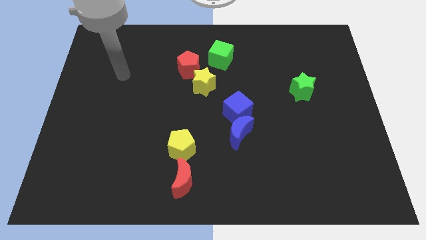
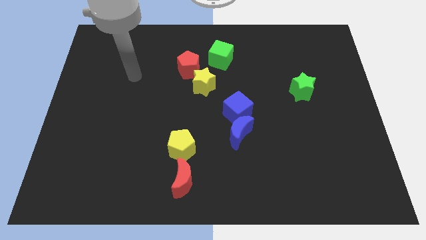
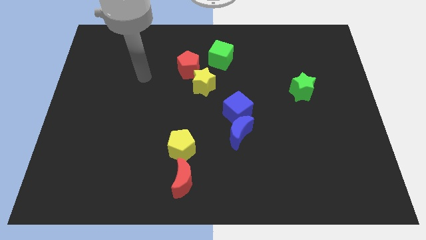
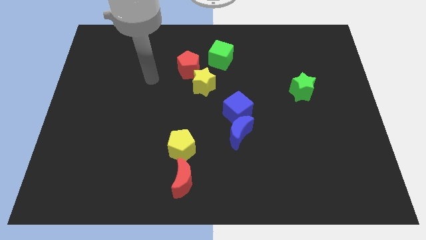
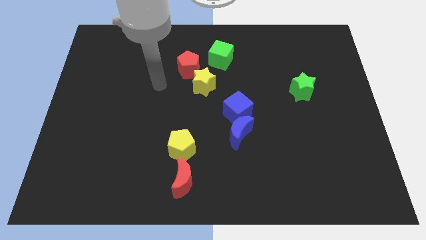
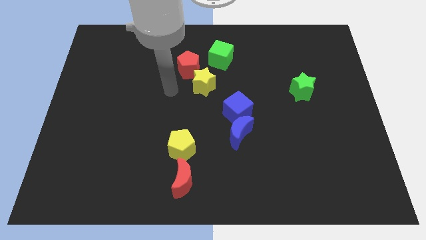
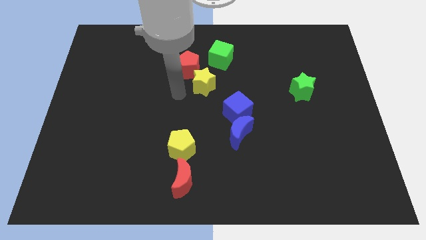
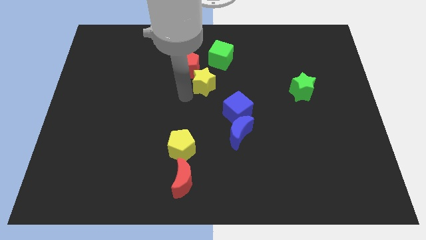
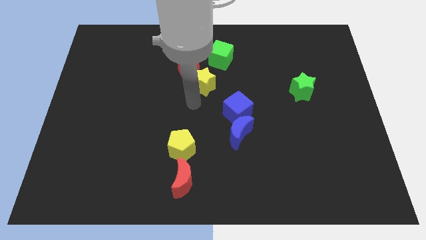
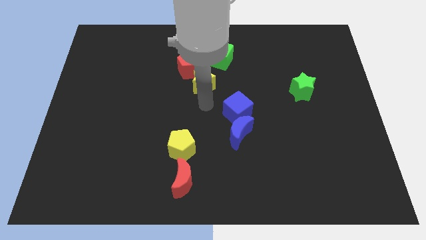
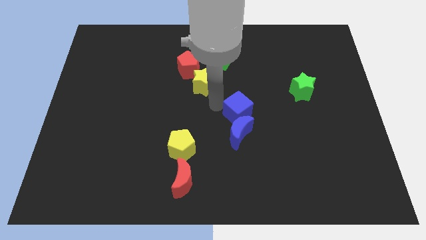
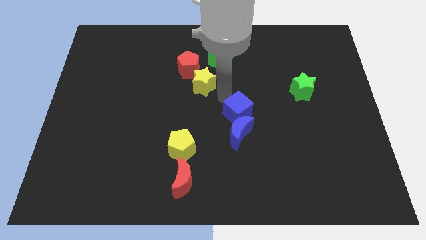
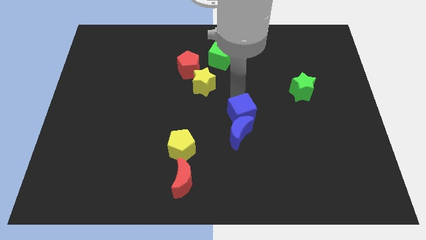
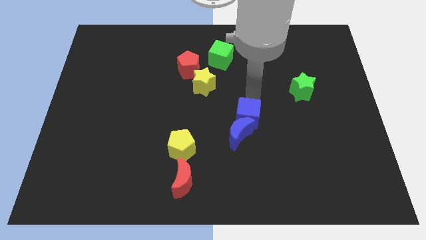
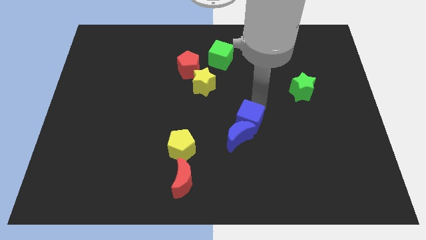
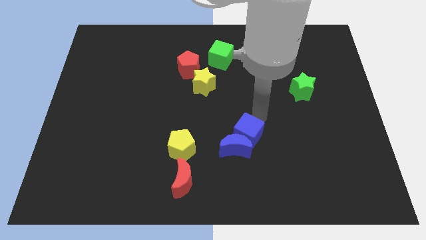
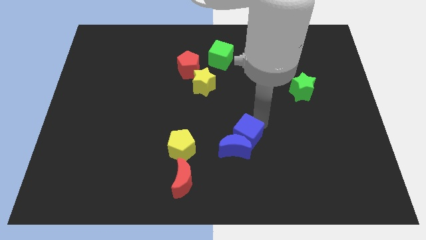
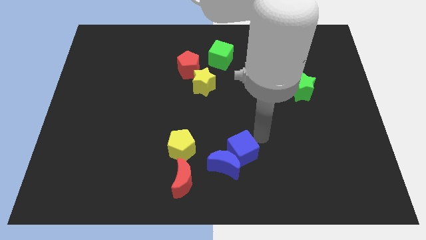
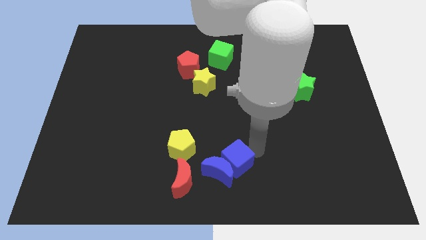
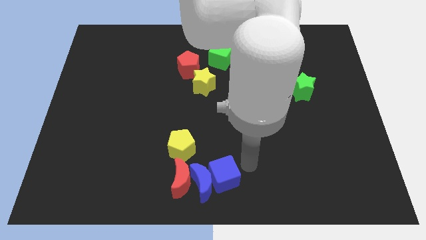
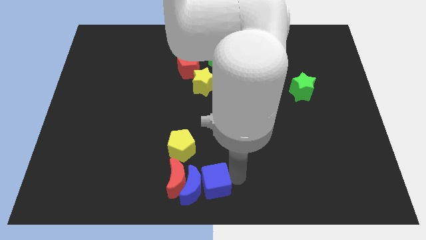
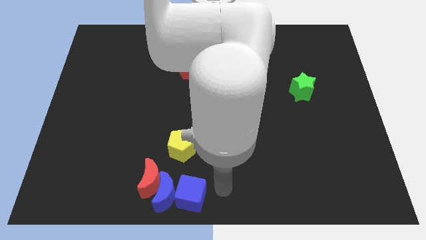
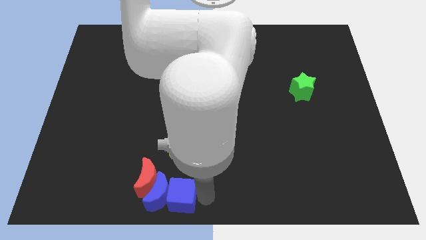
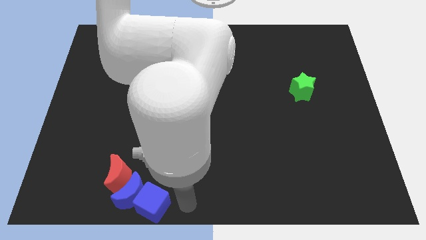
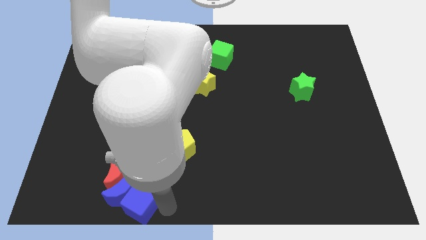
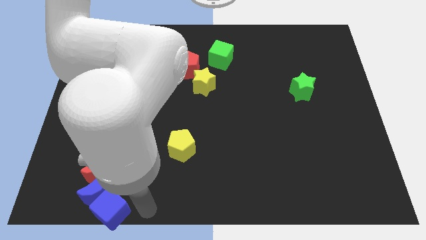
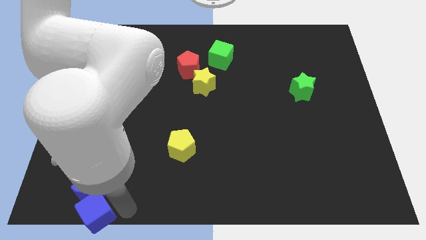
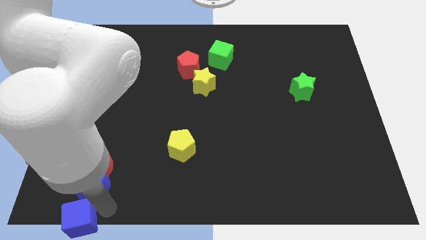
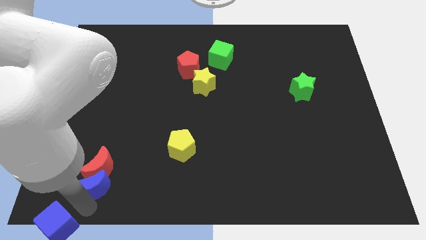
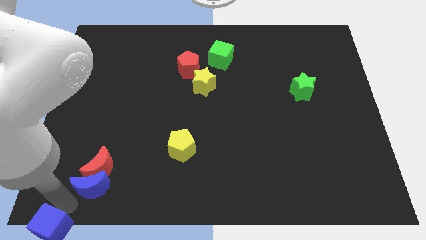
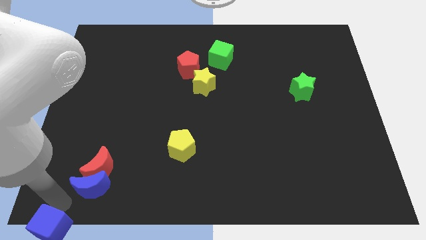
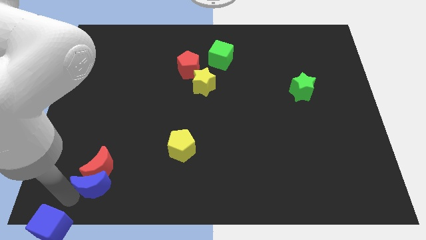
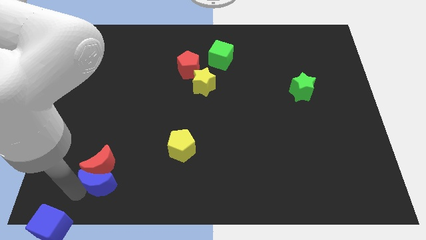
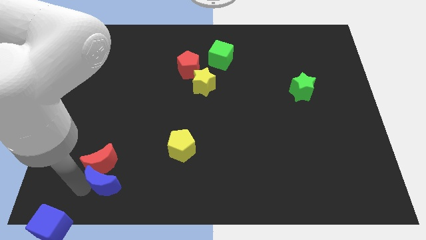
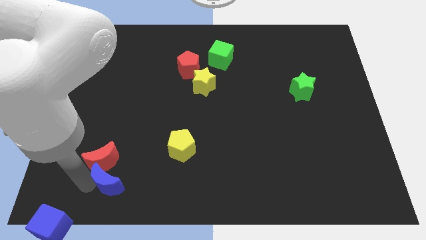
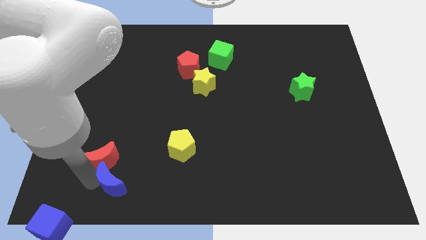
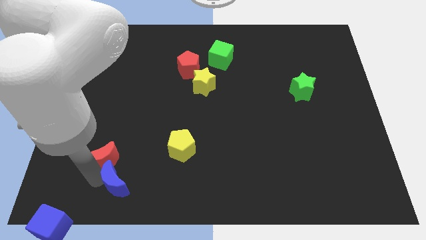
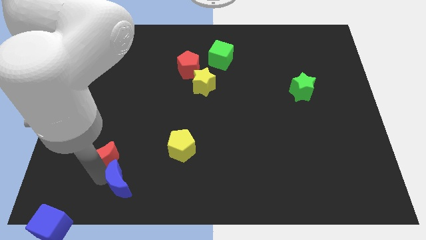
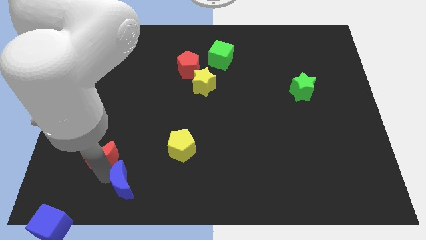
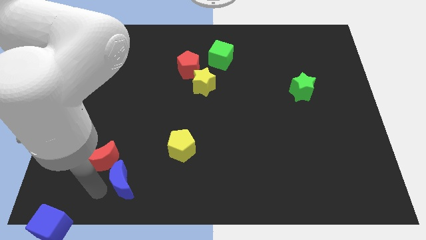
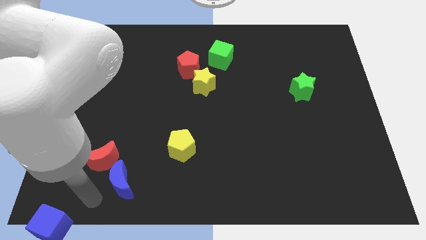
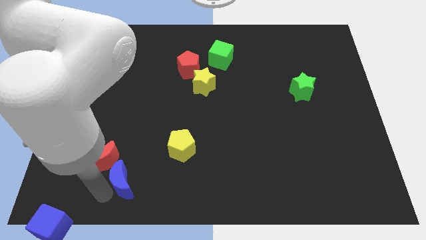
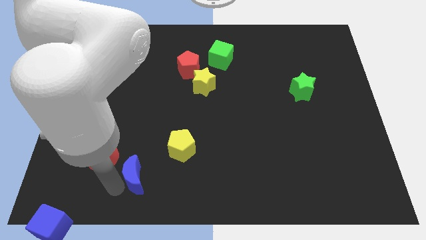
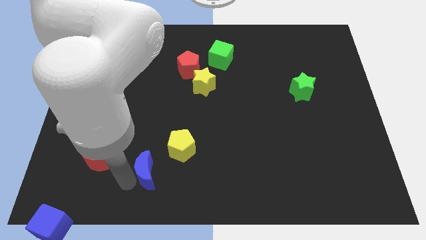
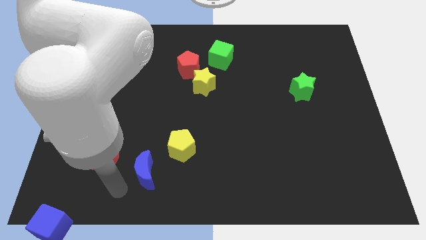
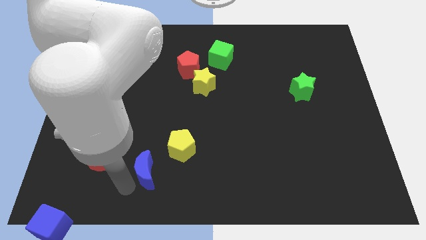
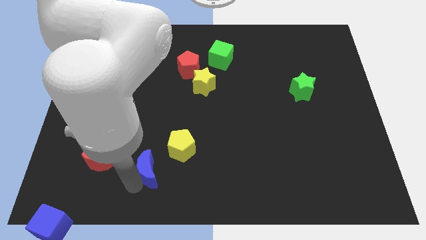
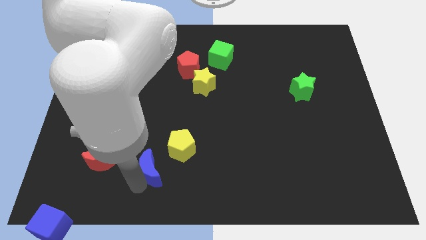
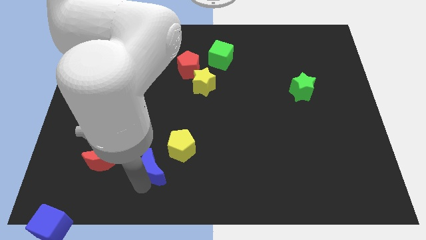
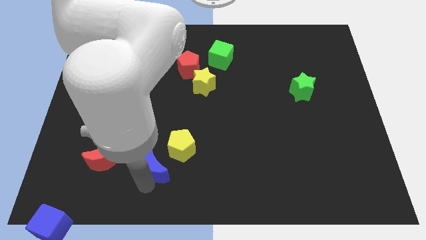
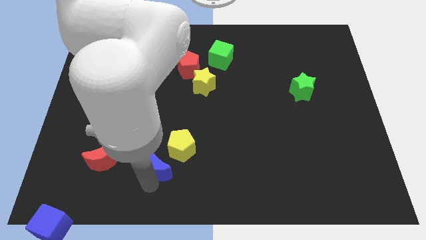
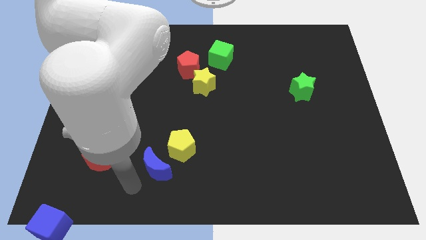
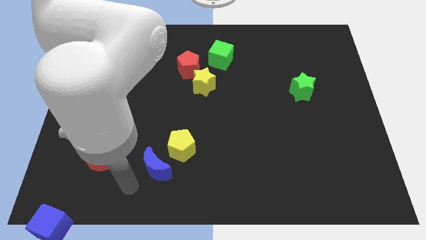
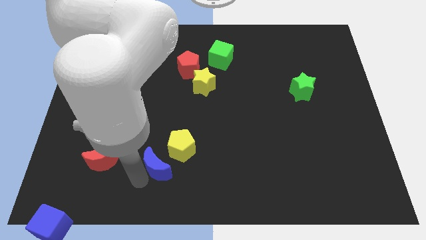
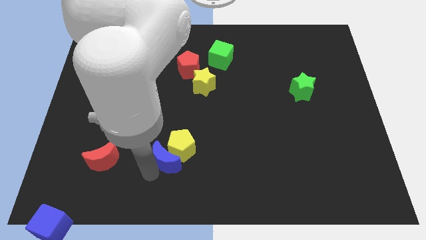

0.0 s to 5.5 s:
move the blue moon close to the yellow pentagon

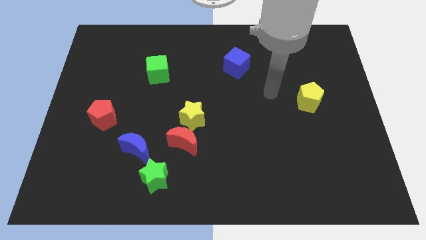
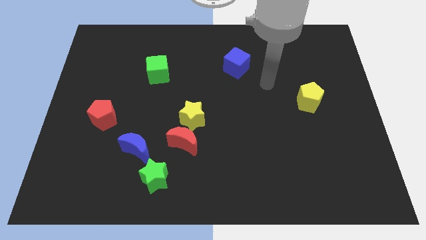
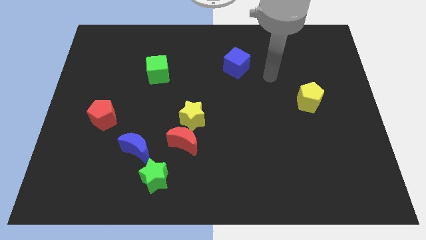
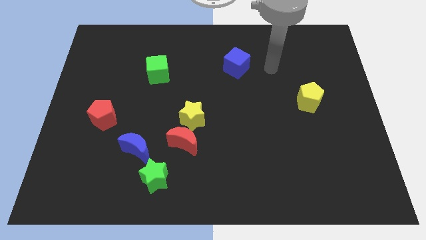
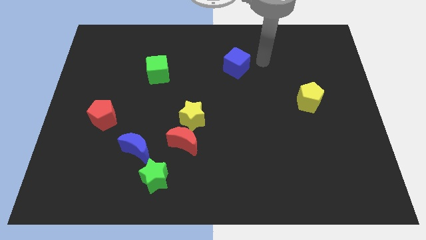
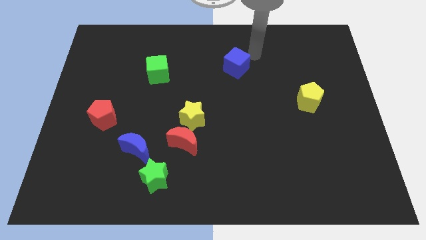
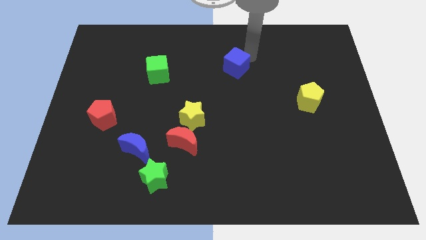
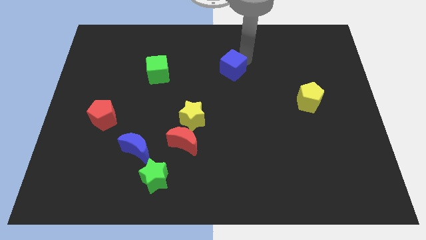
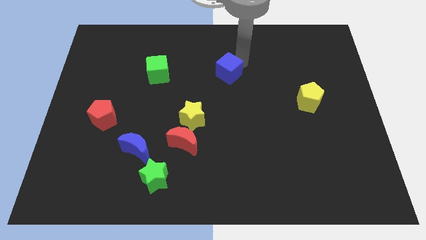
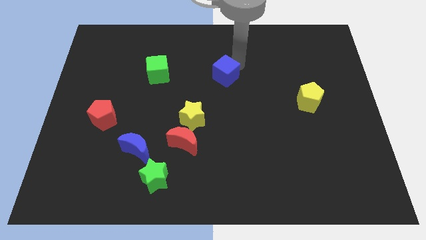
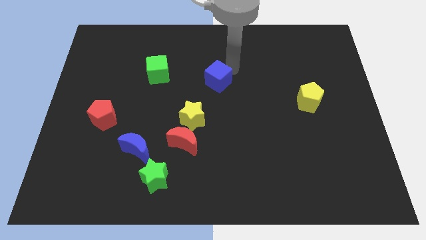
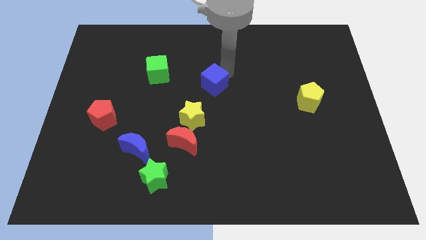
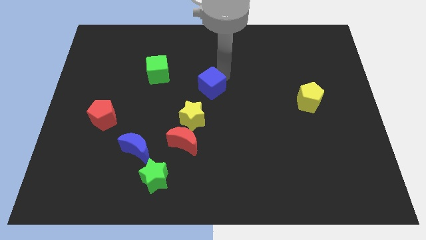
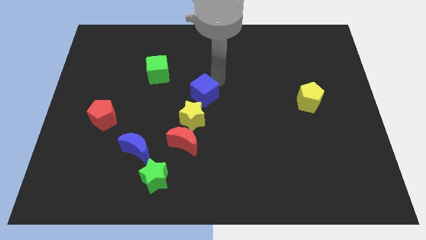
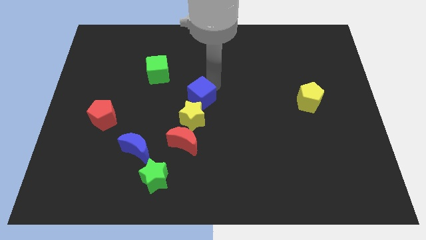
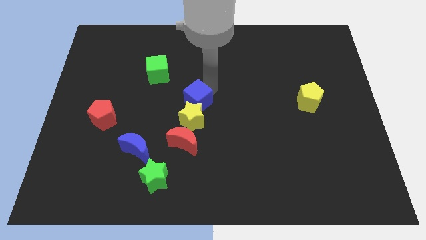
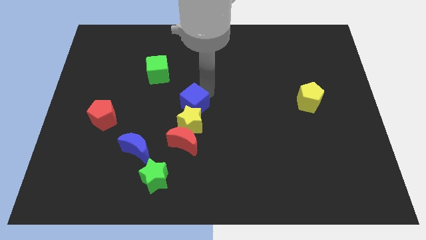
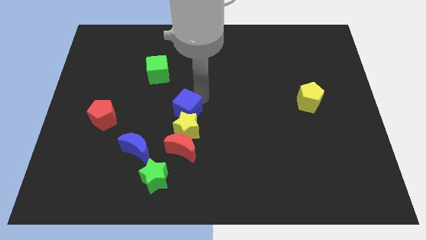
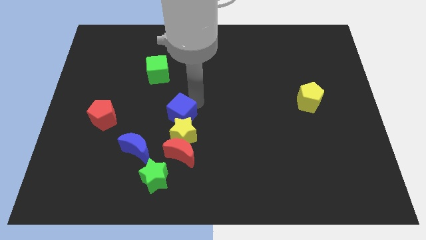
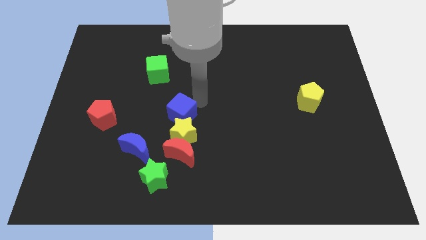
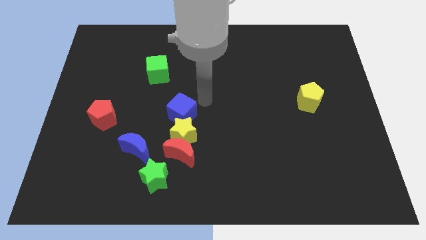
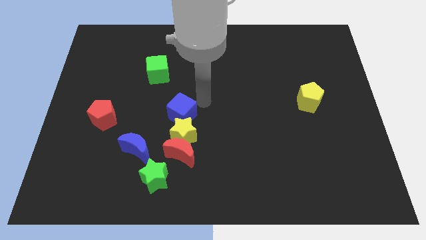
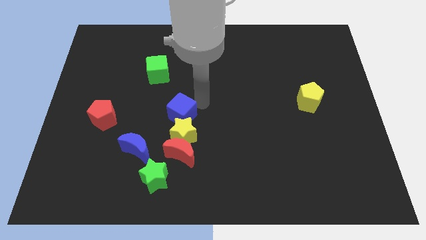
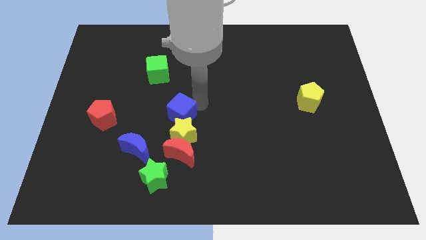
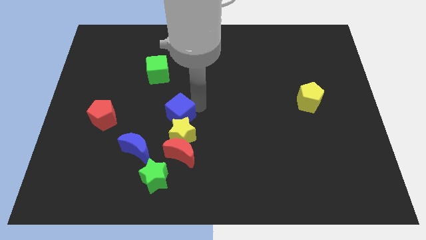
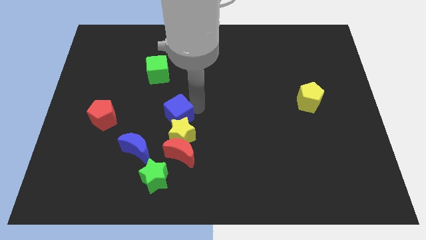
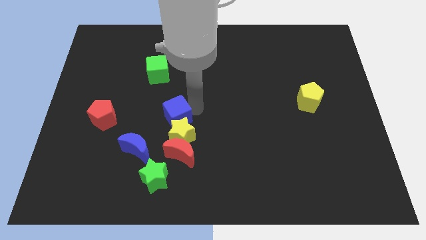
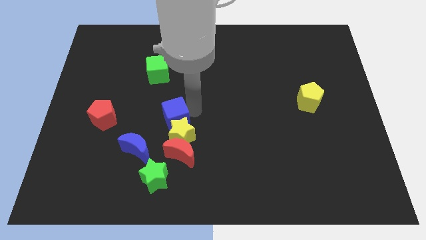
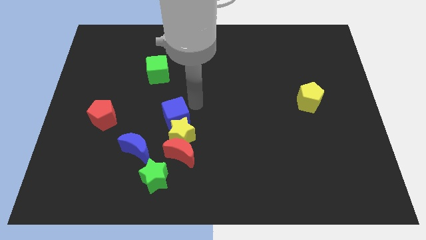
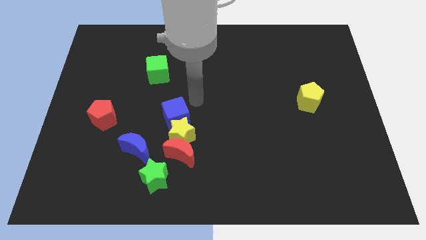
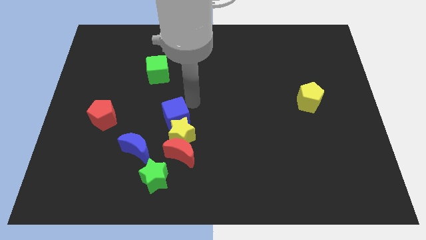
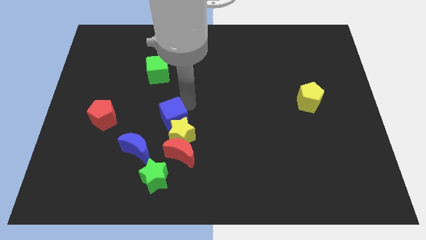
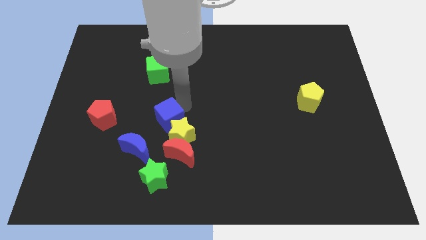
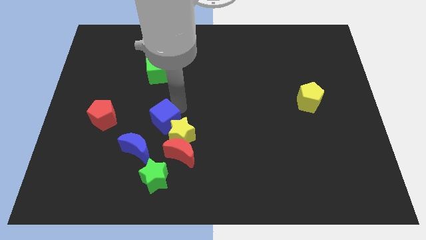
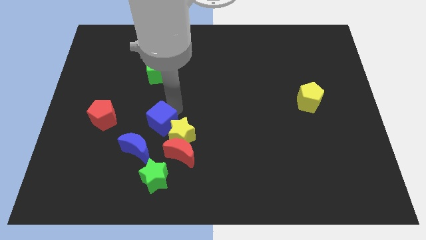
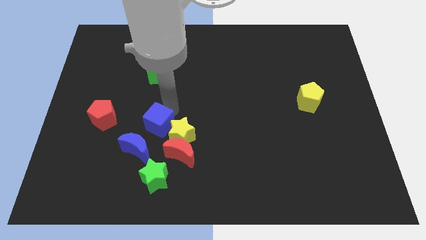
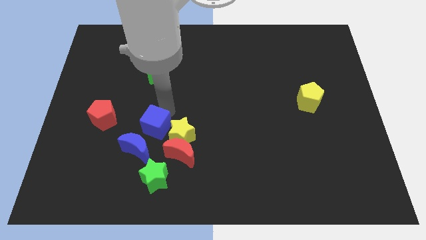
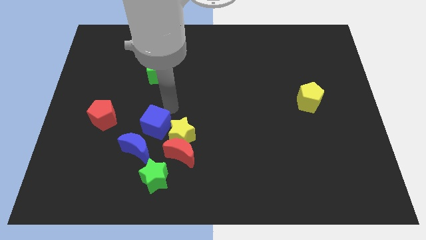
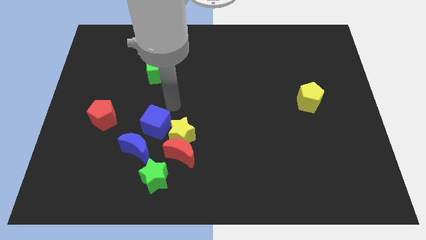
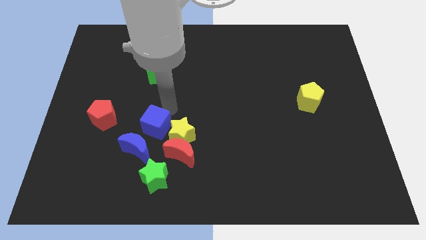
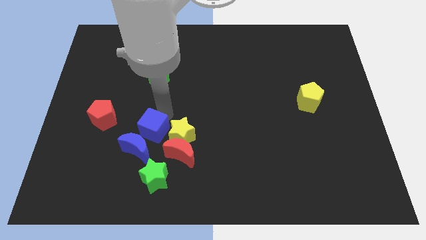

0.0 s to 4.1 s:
slide the blue cube to the blue moon
